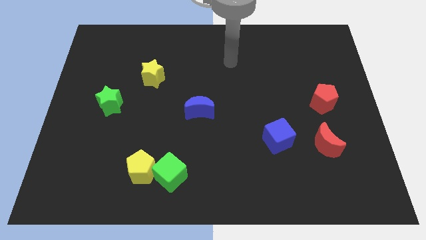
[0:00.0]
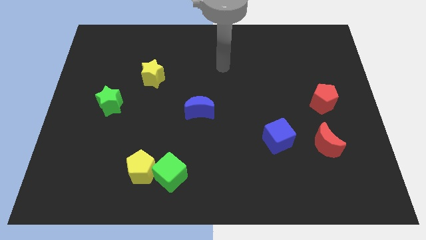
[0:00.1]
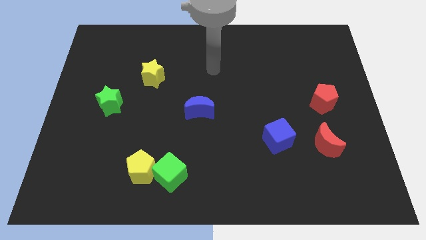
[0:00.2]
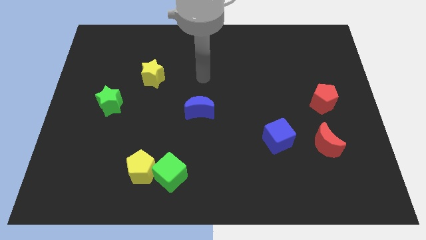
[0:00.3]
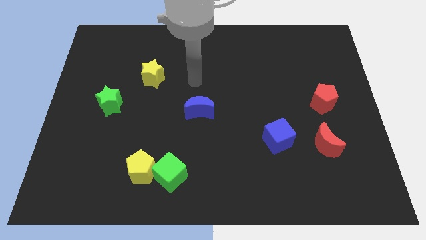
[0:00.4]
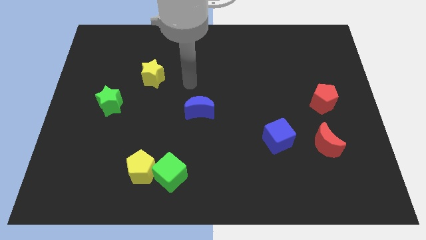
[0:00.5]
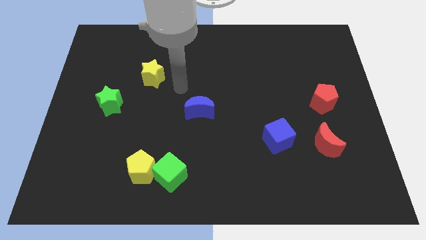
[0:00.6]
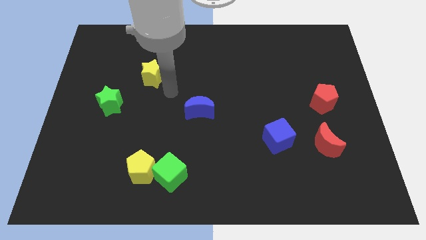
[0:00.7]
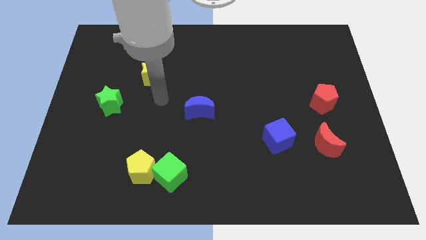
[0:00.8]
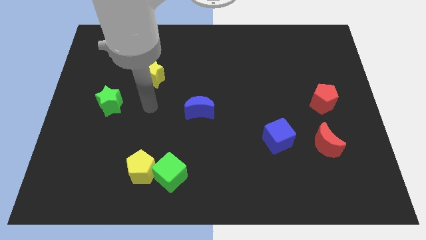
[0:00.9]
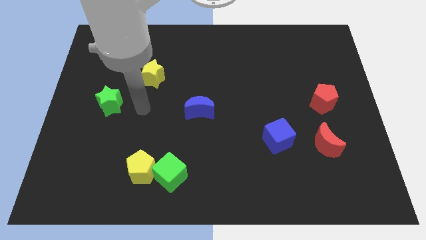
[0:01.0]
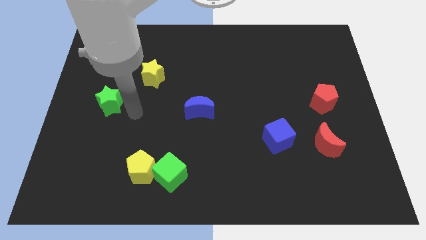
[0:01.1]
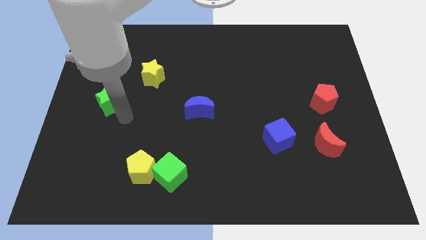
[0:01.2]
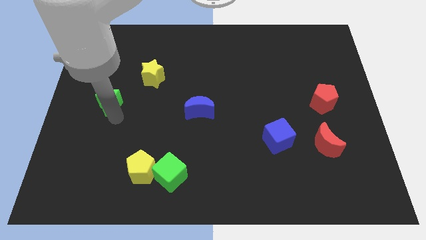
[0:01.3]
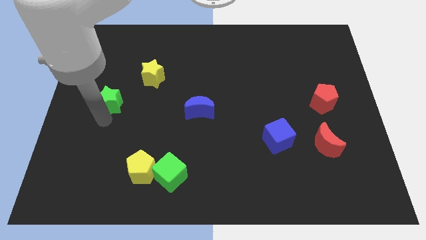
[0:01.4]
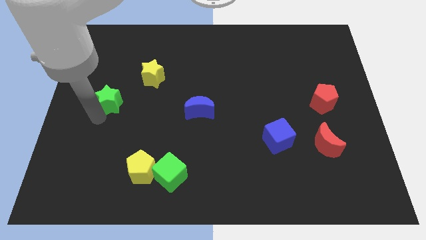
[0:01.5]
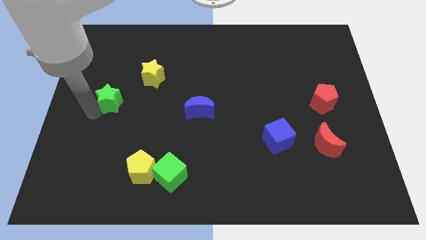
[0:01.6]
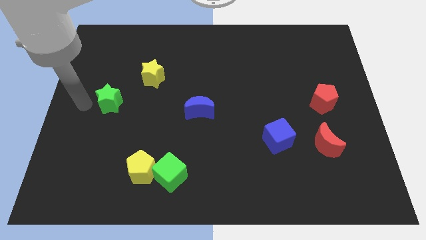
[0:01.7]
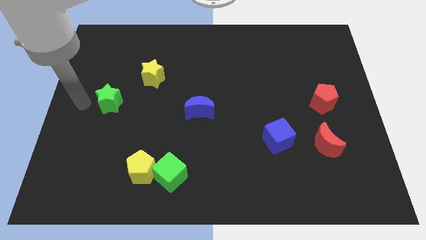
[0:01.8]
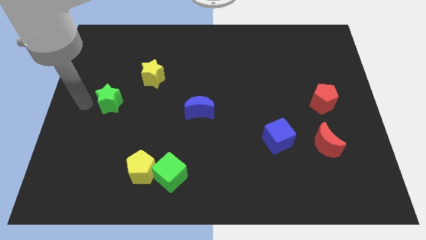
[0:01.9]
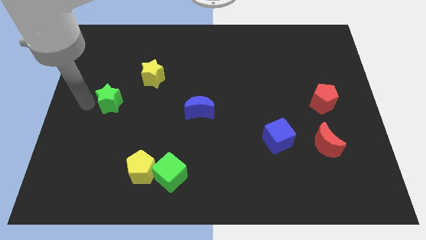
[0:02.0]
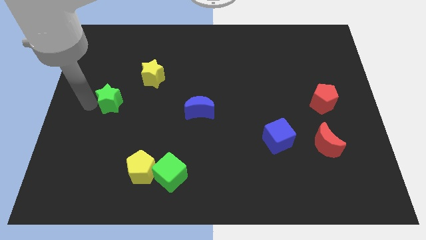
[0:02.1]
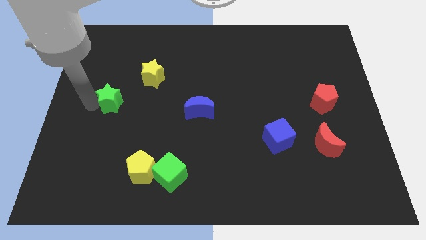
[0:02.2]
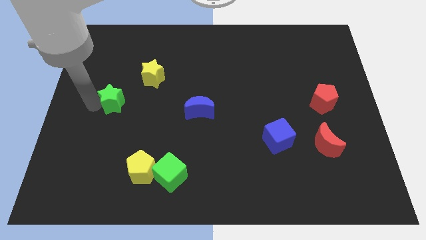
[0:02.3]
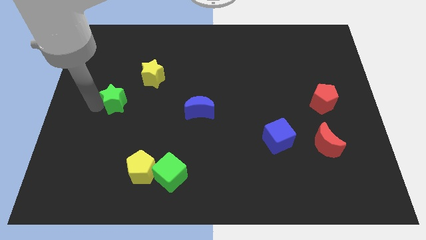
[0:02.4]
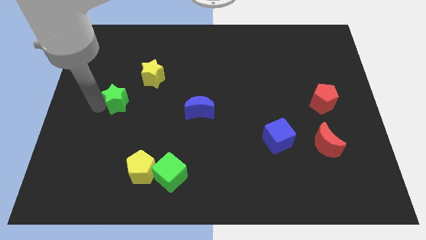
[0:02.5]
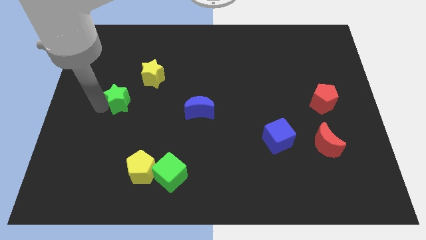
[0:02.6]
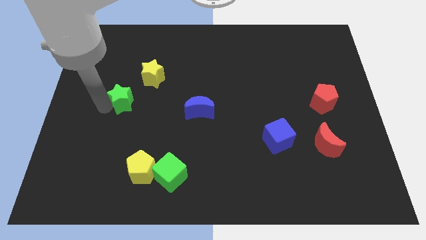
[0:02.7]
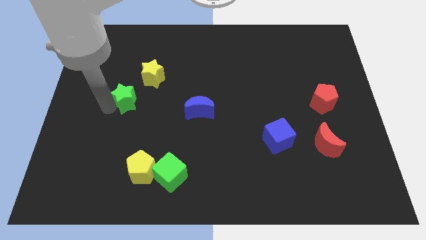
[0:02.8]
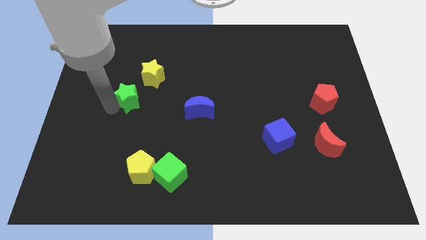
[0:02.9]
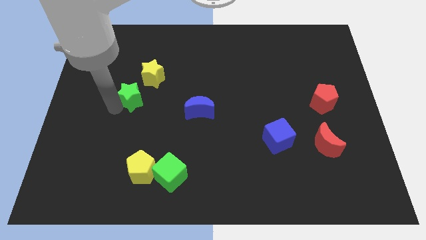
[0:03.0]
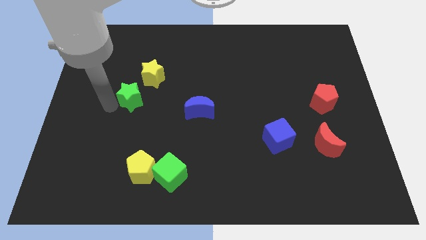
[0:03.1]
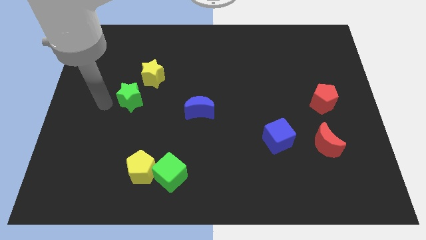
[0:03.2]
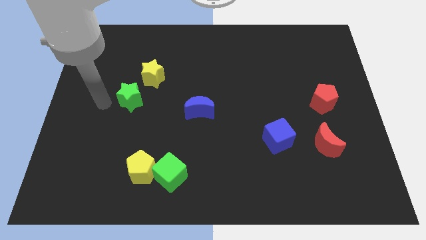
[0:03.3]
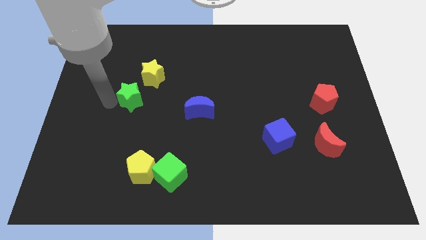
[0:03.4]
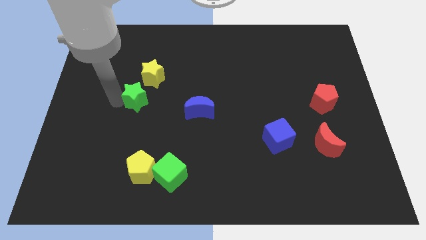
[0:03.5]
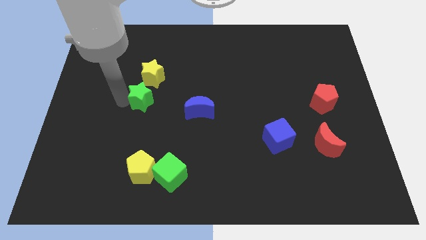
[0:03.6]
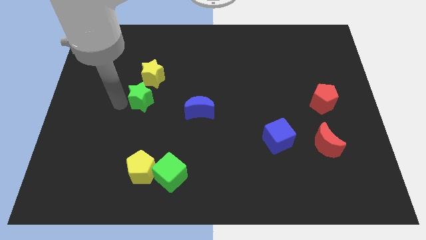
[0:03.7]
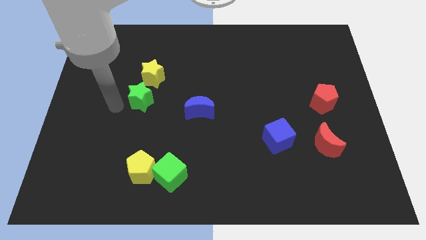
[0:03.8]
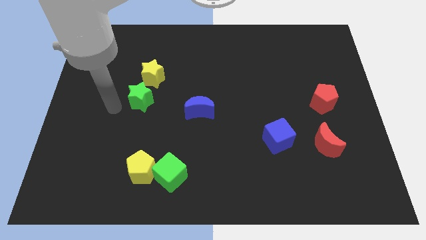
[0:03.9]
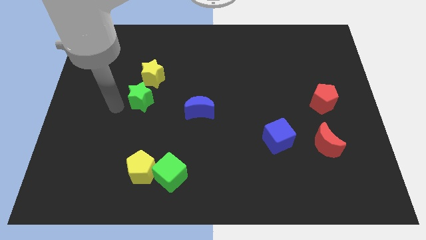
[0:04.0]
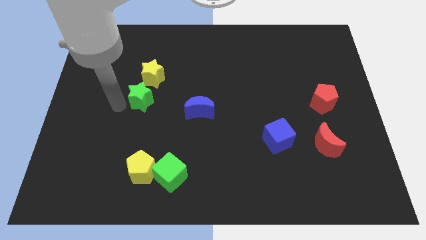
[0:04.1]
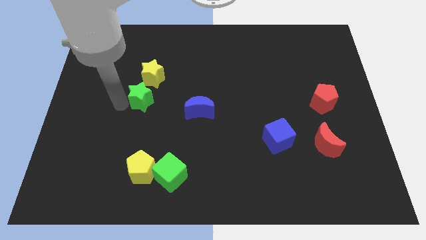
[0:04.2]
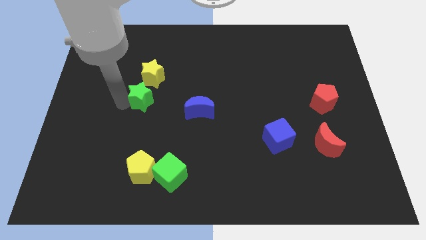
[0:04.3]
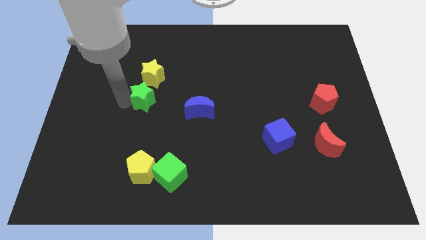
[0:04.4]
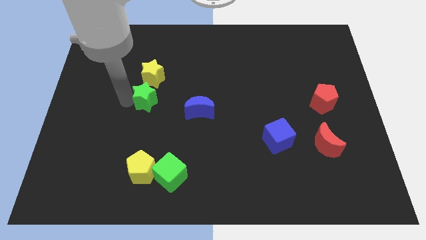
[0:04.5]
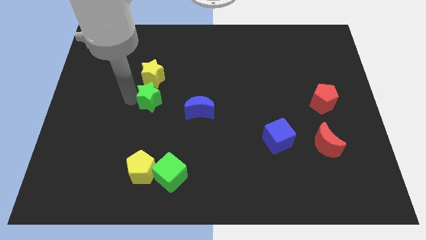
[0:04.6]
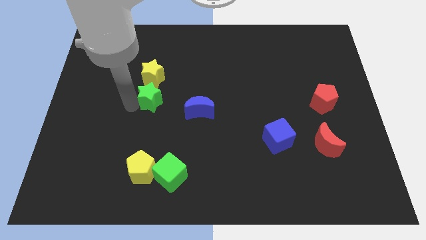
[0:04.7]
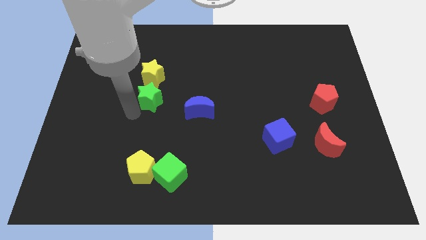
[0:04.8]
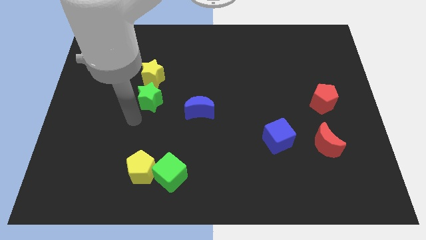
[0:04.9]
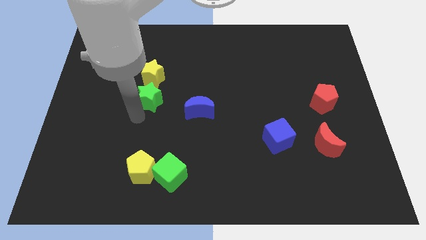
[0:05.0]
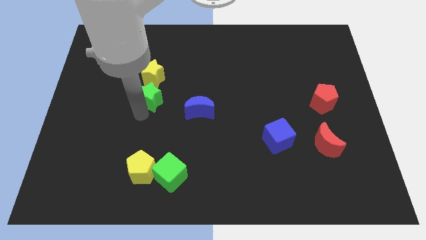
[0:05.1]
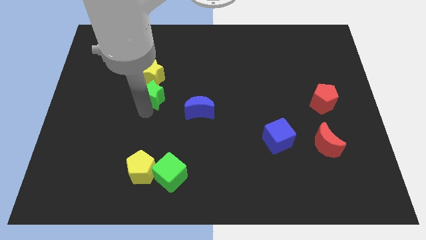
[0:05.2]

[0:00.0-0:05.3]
slightly push the green star up and right

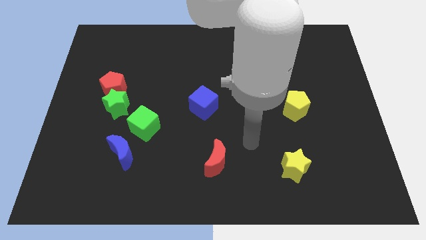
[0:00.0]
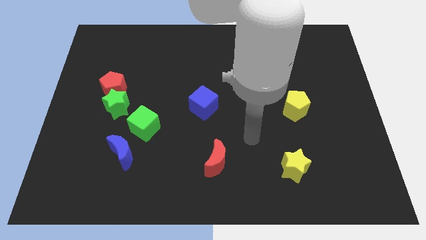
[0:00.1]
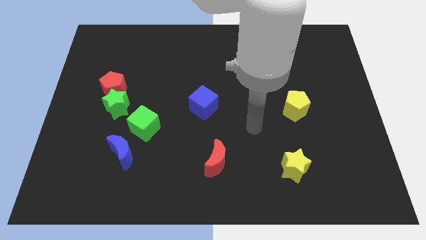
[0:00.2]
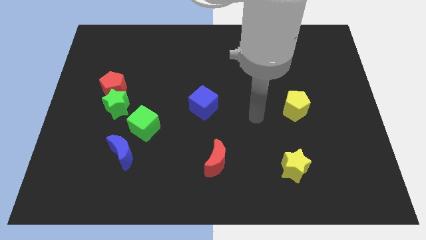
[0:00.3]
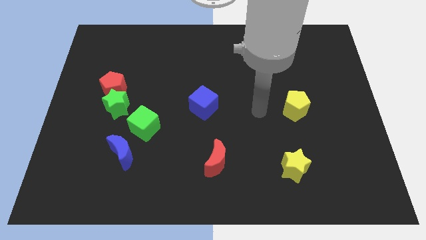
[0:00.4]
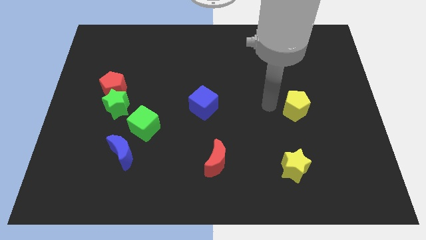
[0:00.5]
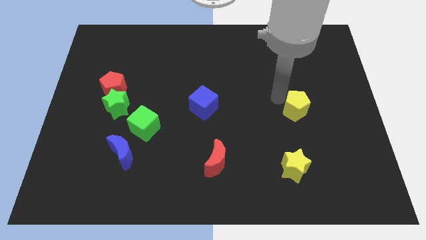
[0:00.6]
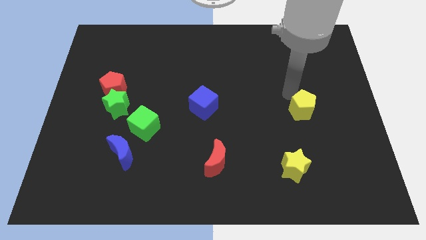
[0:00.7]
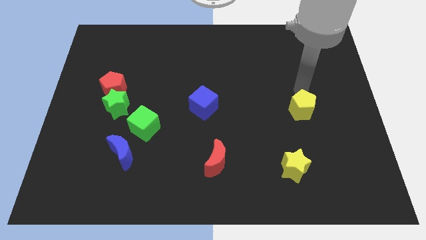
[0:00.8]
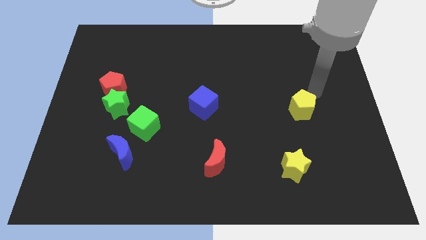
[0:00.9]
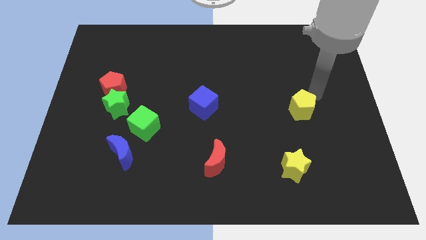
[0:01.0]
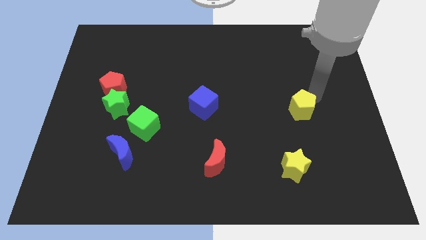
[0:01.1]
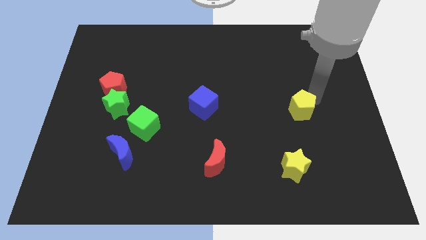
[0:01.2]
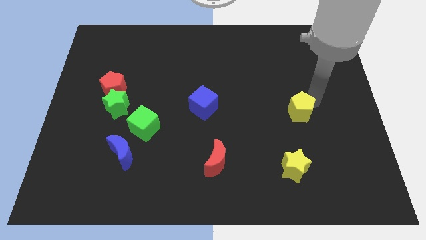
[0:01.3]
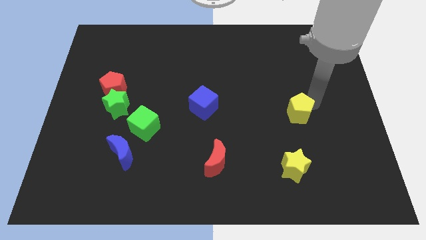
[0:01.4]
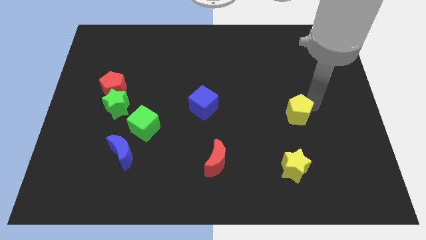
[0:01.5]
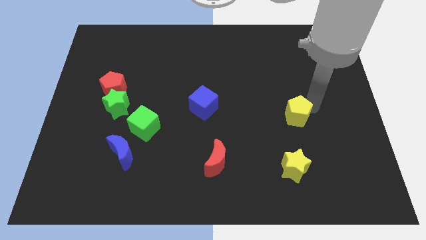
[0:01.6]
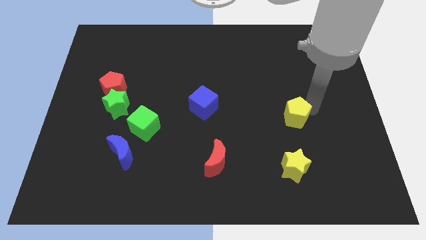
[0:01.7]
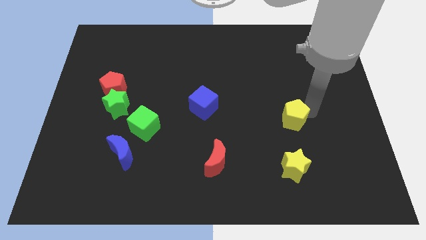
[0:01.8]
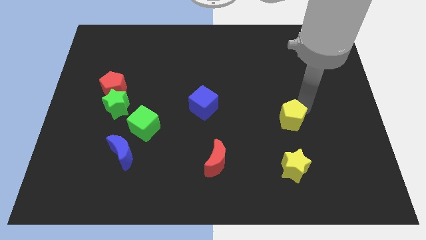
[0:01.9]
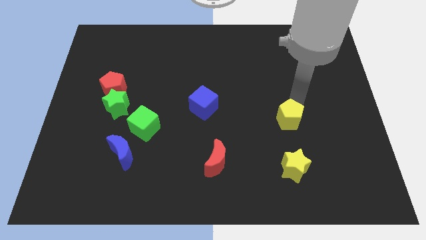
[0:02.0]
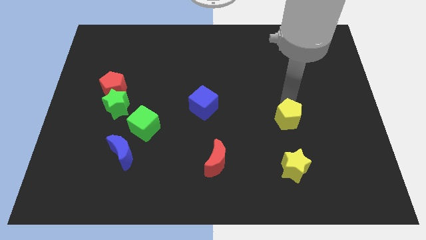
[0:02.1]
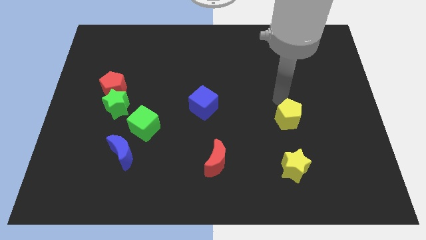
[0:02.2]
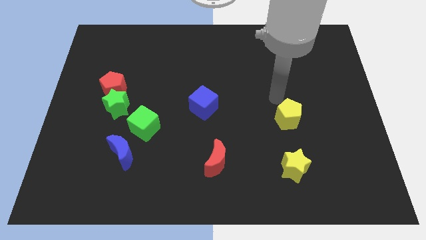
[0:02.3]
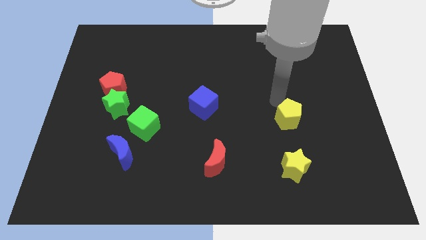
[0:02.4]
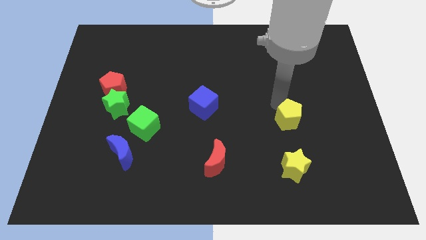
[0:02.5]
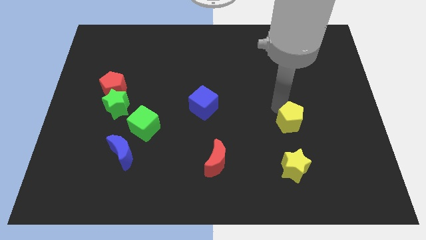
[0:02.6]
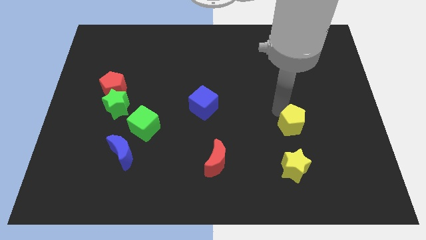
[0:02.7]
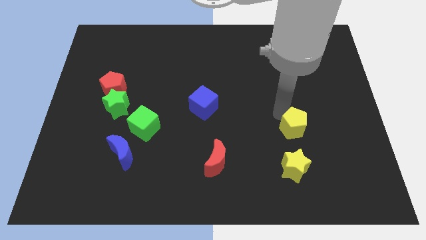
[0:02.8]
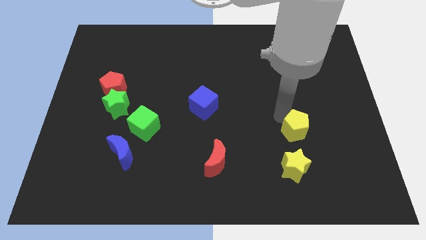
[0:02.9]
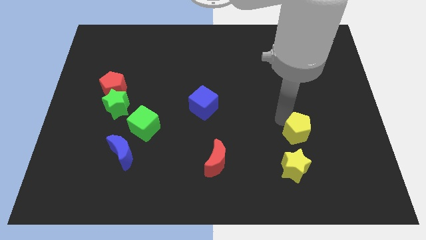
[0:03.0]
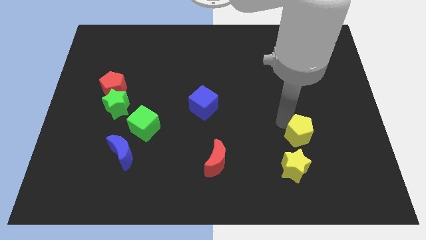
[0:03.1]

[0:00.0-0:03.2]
slide the yellow pentagon a little down
